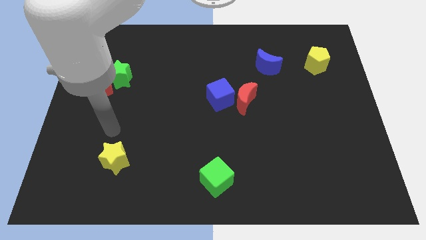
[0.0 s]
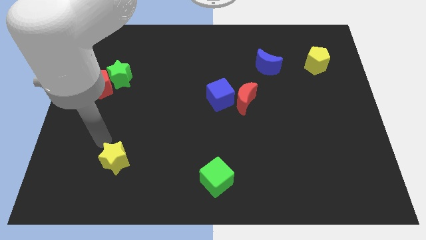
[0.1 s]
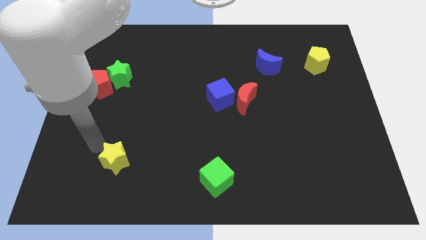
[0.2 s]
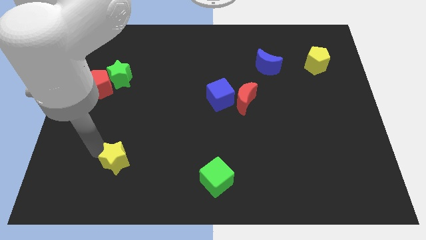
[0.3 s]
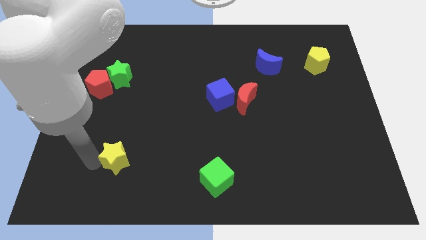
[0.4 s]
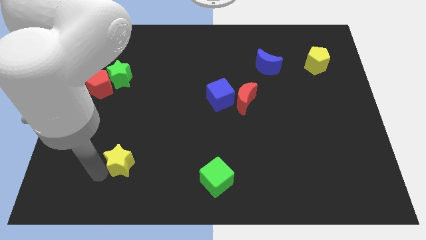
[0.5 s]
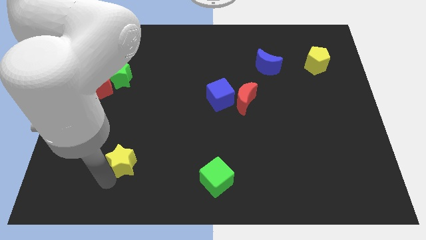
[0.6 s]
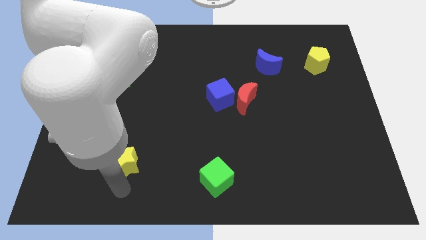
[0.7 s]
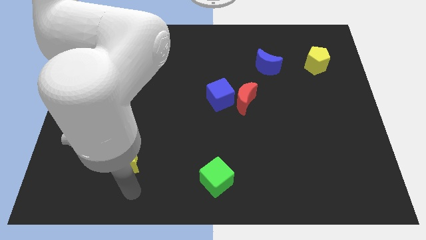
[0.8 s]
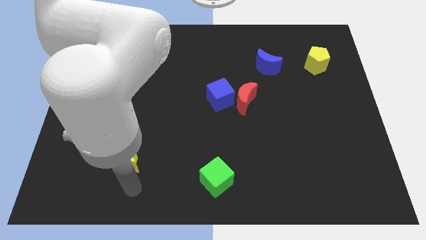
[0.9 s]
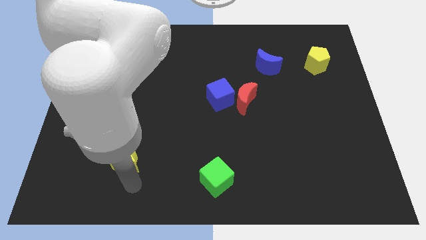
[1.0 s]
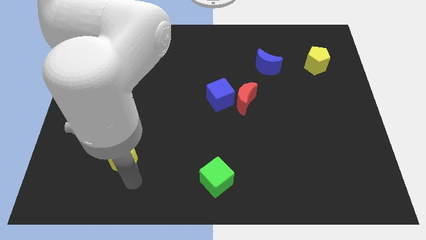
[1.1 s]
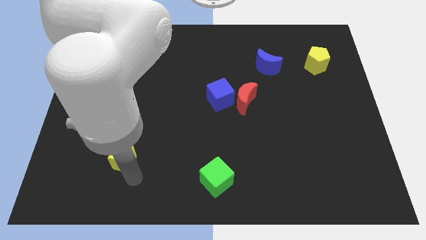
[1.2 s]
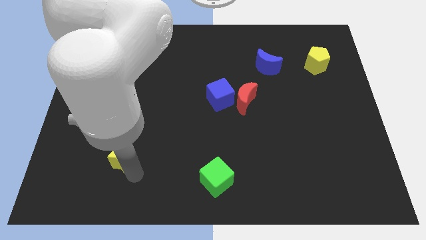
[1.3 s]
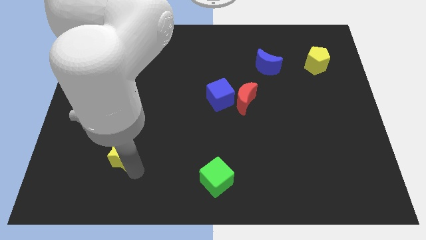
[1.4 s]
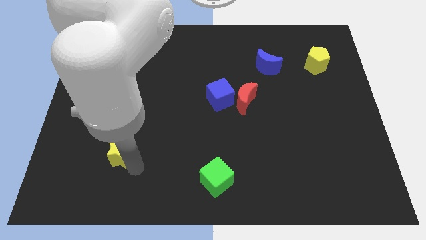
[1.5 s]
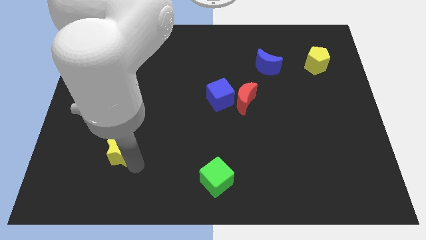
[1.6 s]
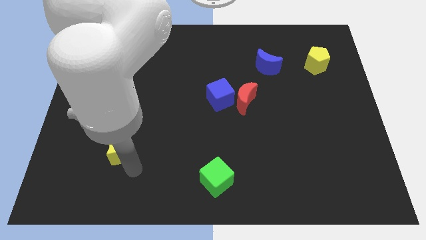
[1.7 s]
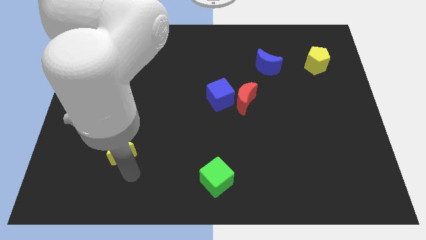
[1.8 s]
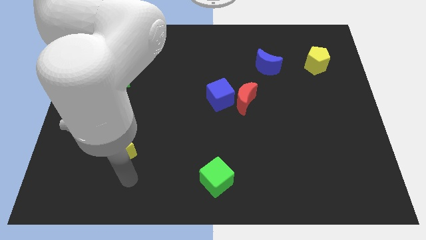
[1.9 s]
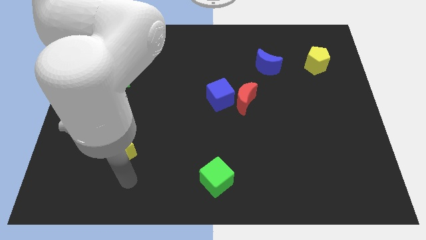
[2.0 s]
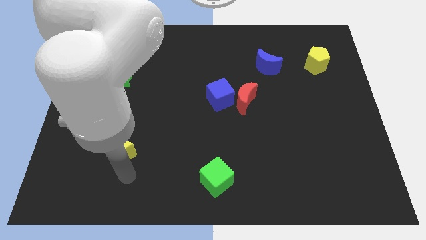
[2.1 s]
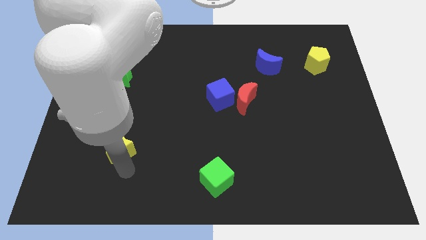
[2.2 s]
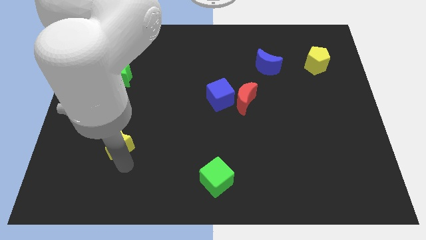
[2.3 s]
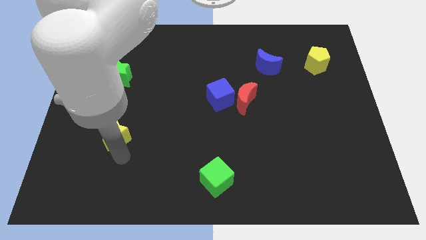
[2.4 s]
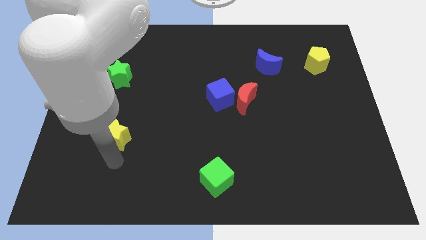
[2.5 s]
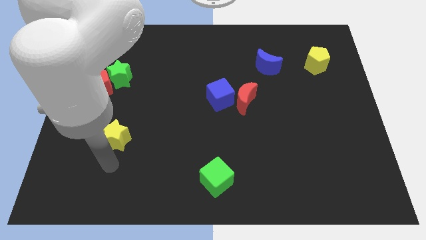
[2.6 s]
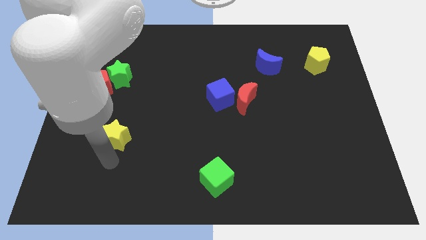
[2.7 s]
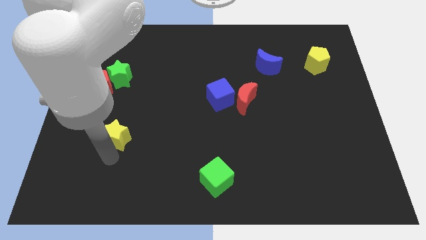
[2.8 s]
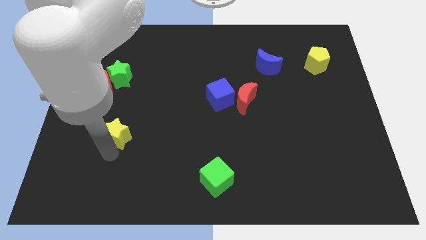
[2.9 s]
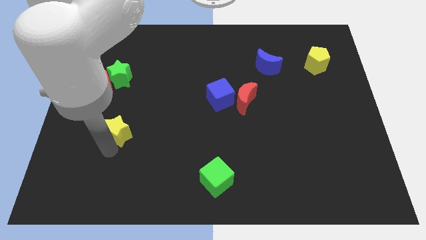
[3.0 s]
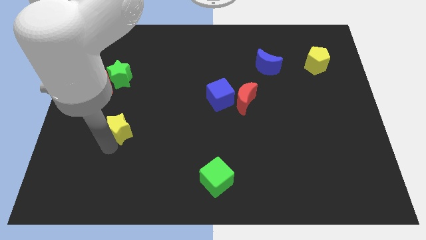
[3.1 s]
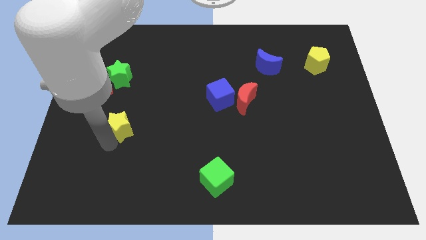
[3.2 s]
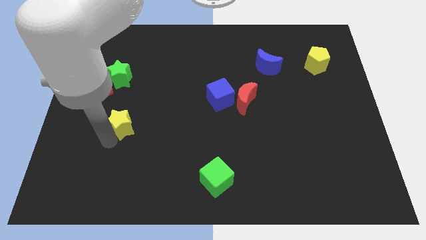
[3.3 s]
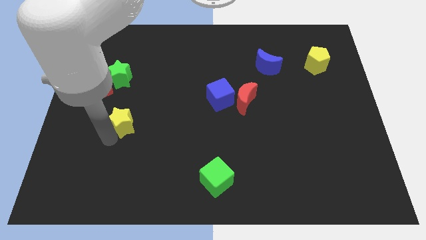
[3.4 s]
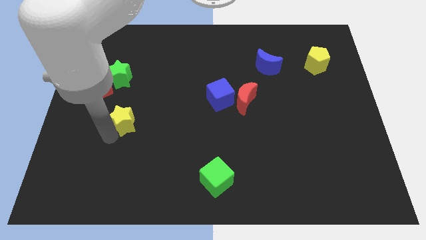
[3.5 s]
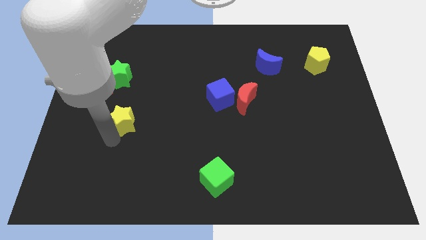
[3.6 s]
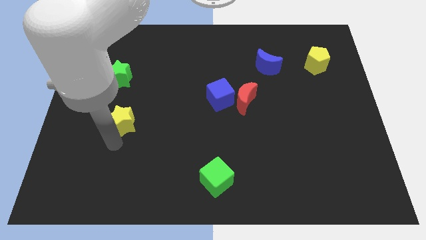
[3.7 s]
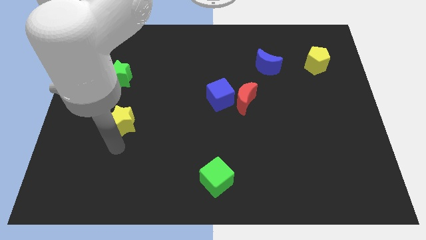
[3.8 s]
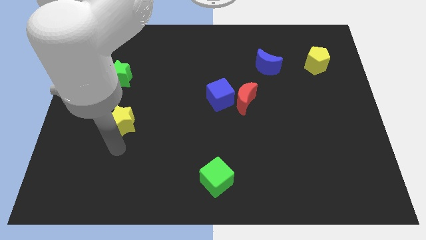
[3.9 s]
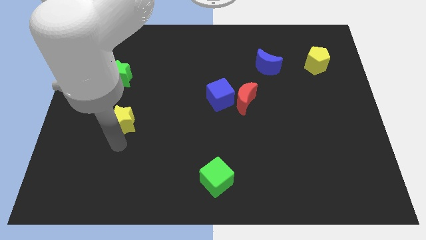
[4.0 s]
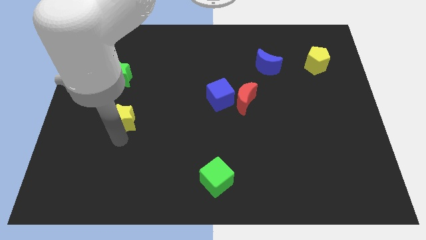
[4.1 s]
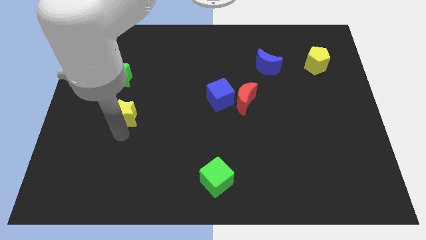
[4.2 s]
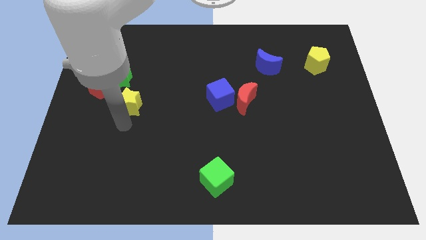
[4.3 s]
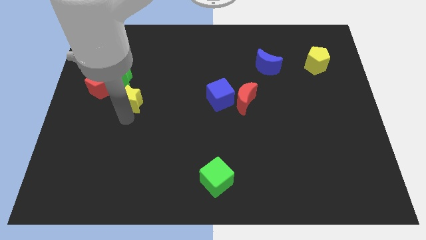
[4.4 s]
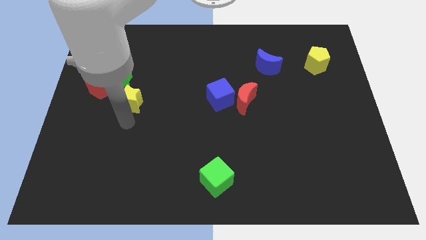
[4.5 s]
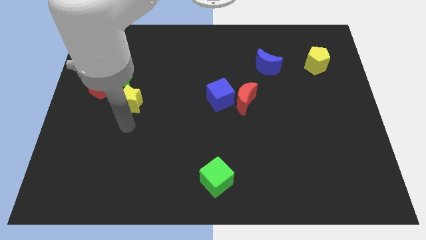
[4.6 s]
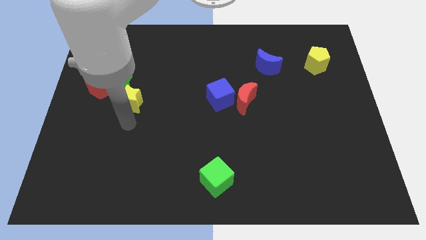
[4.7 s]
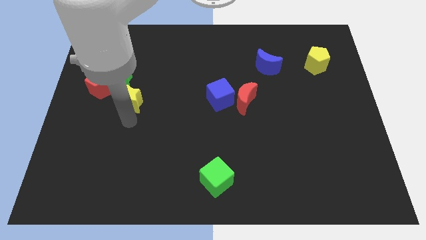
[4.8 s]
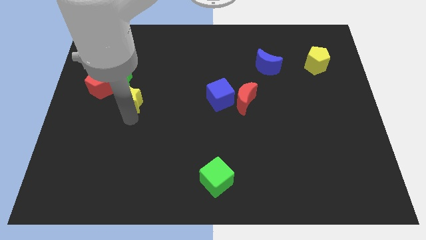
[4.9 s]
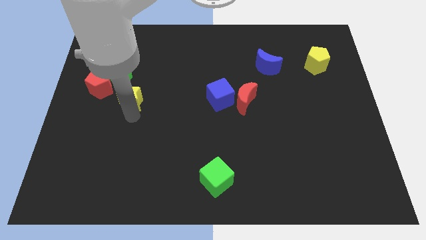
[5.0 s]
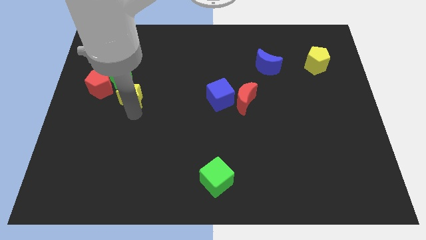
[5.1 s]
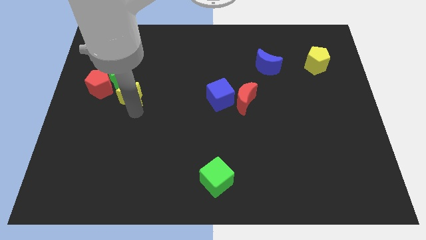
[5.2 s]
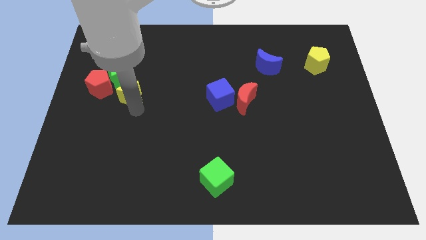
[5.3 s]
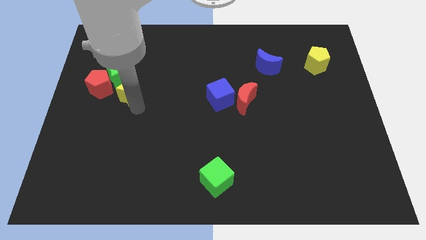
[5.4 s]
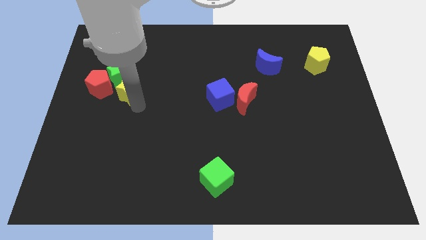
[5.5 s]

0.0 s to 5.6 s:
push the yellow star towards the green star
